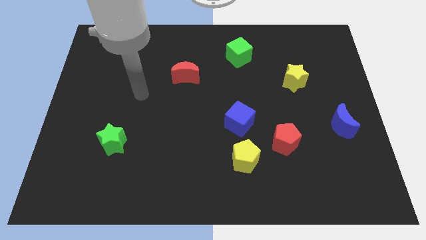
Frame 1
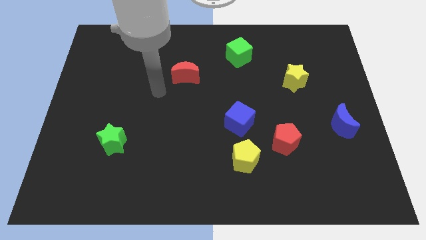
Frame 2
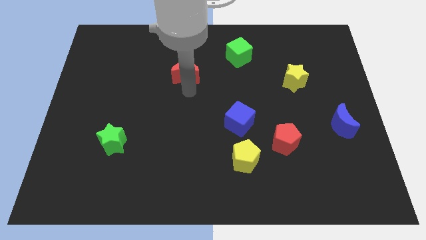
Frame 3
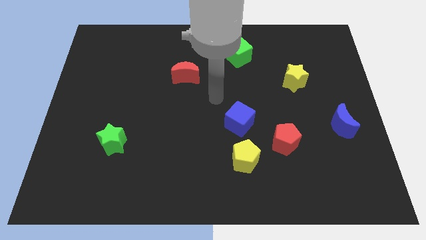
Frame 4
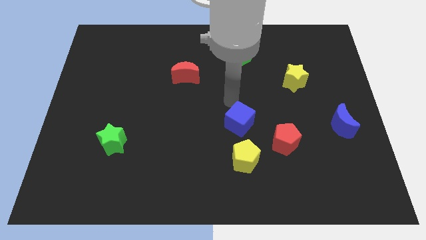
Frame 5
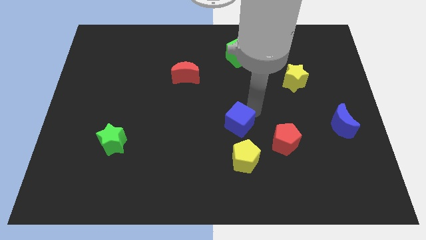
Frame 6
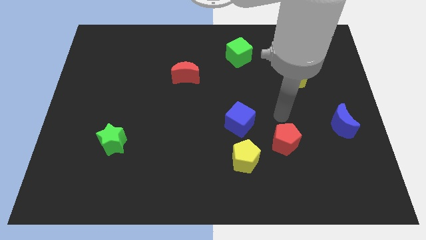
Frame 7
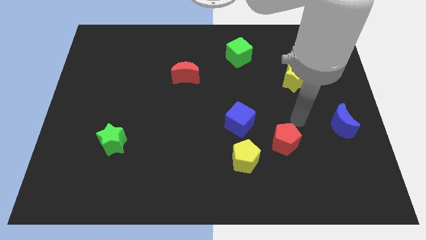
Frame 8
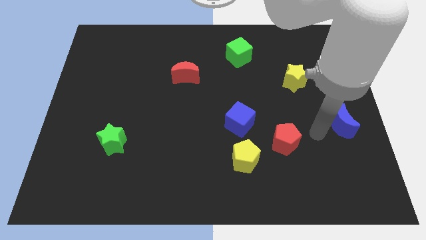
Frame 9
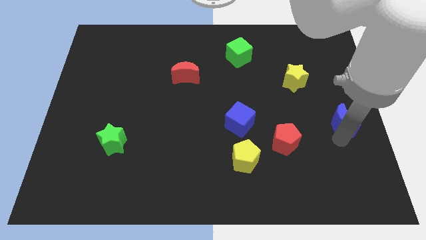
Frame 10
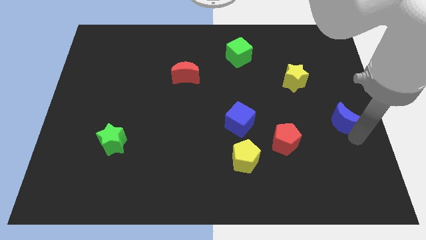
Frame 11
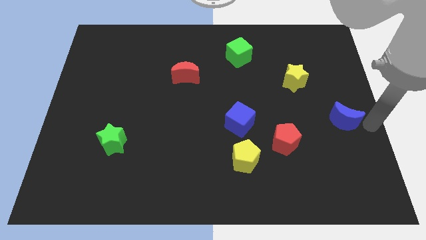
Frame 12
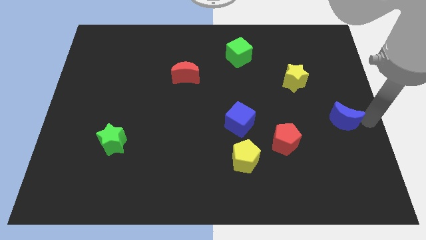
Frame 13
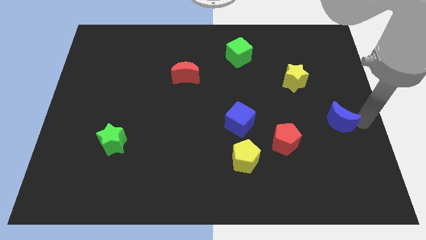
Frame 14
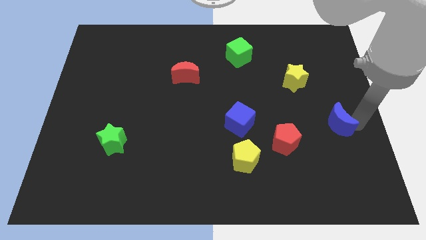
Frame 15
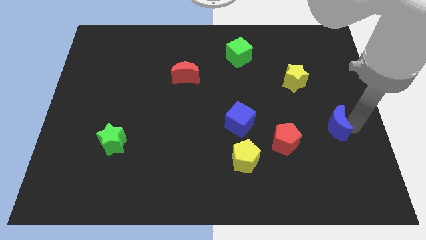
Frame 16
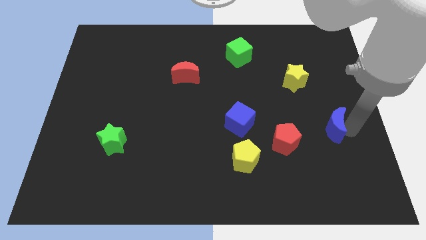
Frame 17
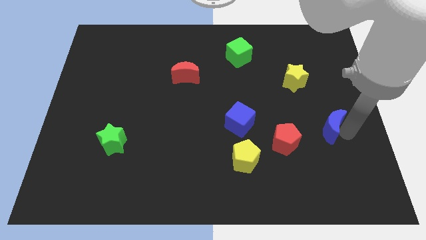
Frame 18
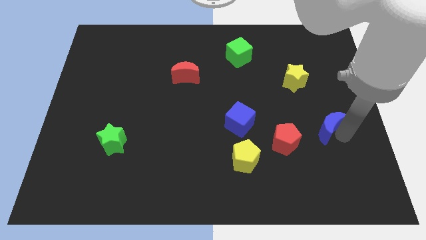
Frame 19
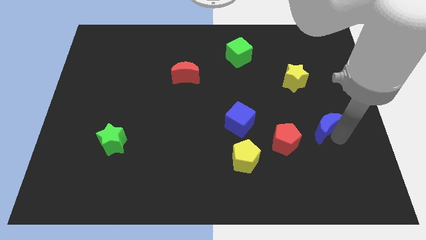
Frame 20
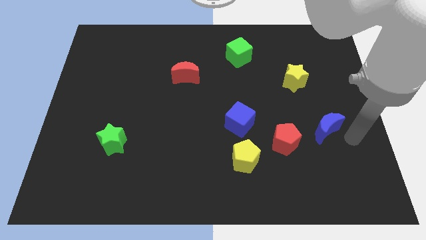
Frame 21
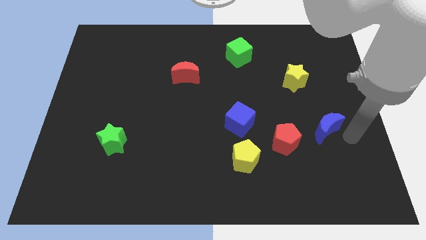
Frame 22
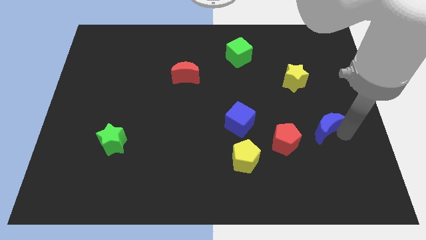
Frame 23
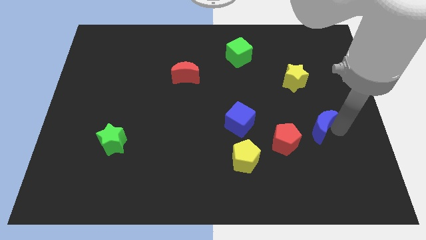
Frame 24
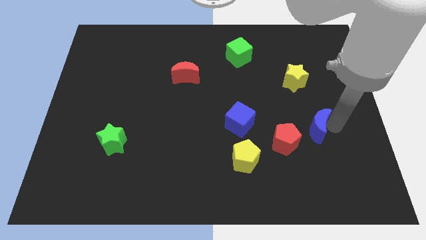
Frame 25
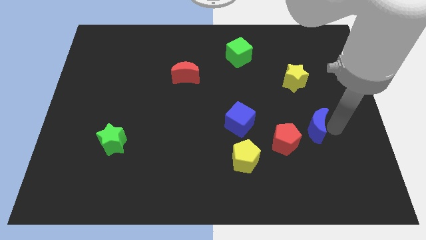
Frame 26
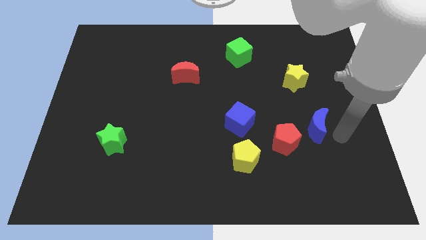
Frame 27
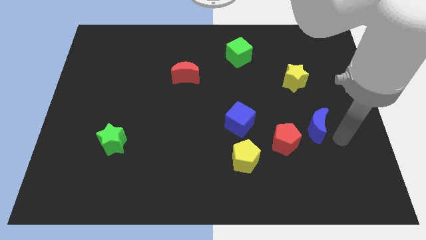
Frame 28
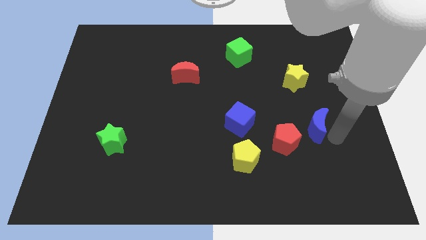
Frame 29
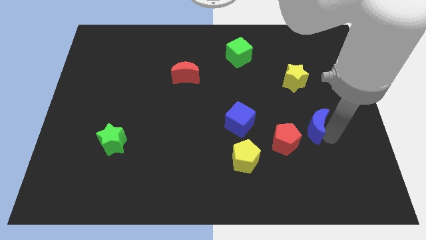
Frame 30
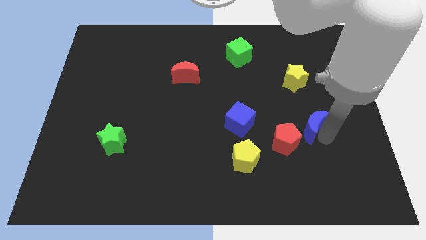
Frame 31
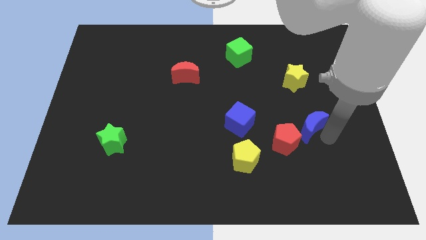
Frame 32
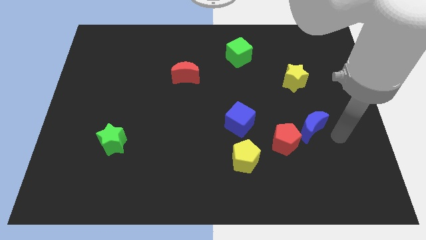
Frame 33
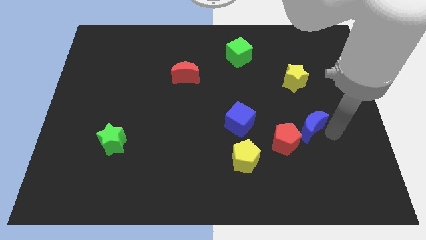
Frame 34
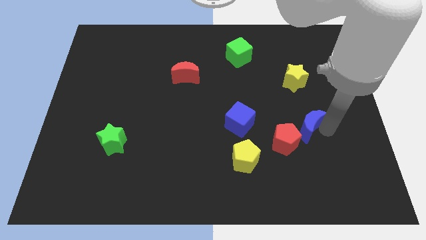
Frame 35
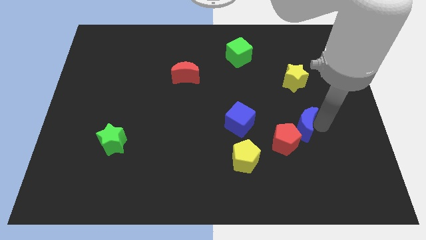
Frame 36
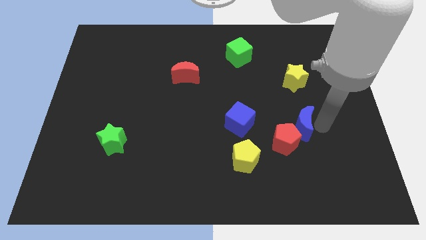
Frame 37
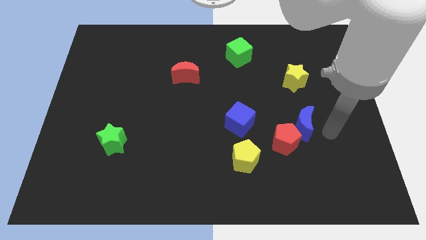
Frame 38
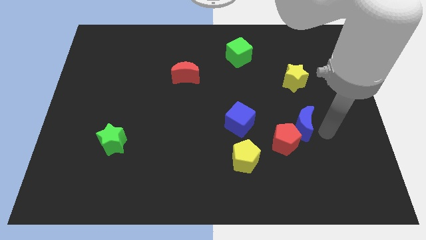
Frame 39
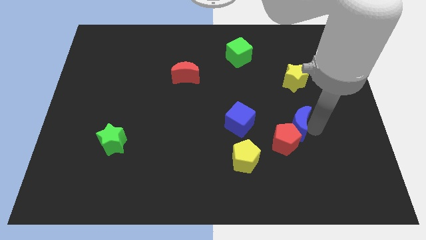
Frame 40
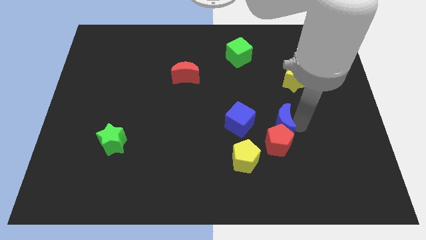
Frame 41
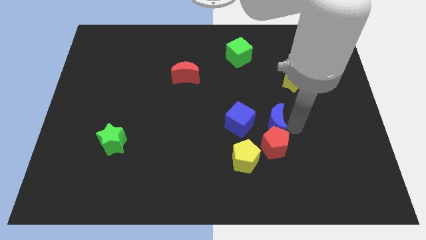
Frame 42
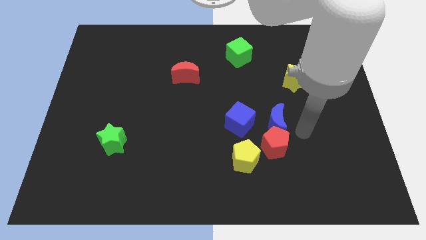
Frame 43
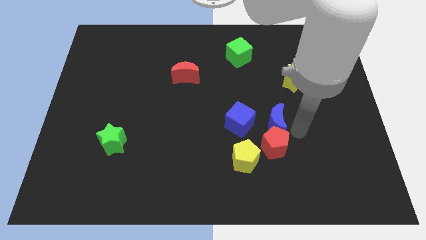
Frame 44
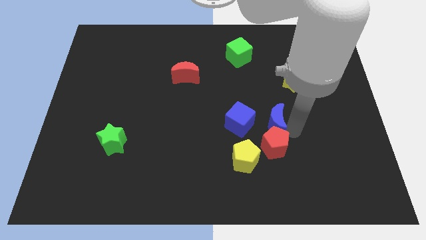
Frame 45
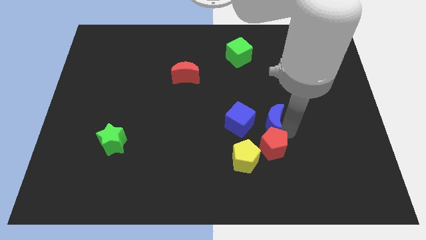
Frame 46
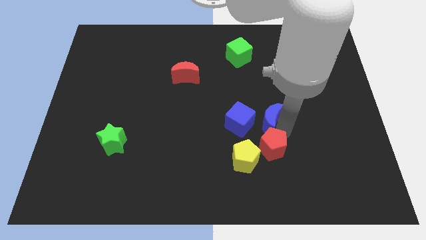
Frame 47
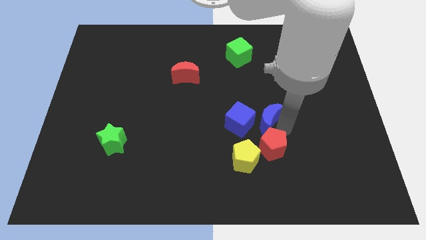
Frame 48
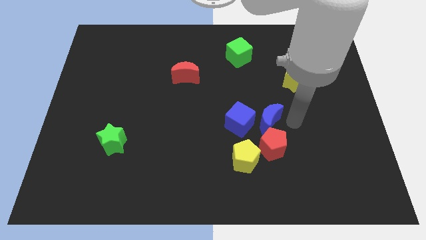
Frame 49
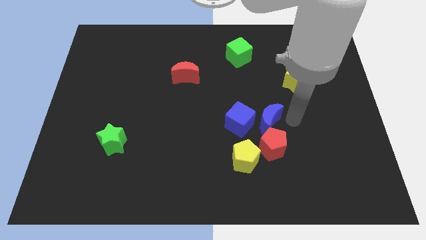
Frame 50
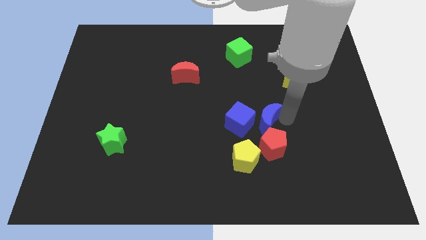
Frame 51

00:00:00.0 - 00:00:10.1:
push the blue moon next to the blue cube

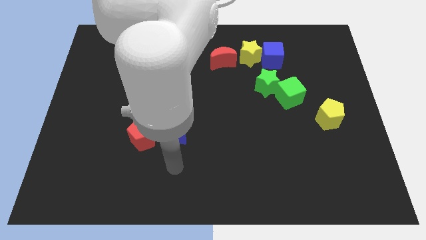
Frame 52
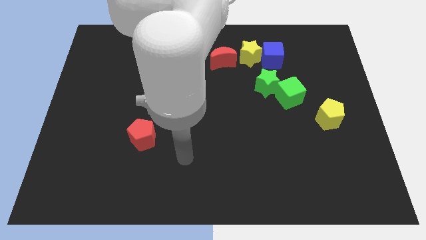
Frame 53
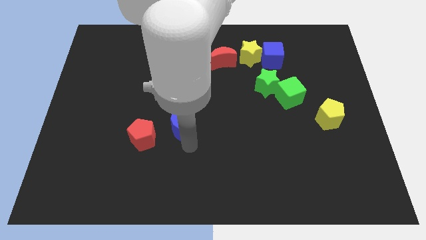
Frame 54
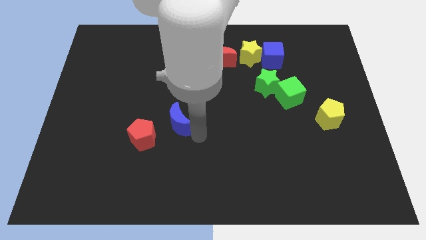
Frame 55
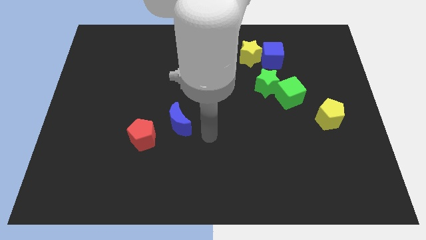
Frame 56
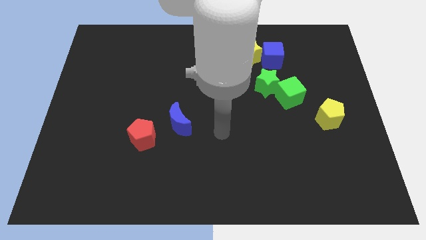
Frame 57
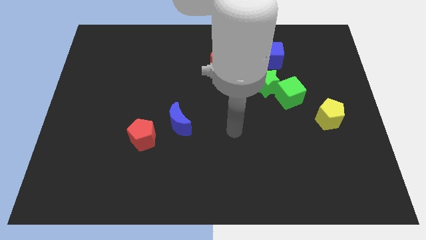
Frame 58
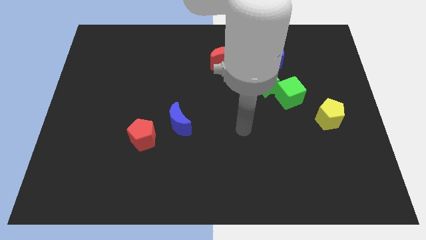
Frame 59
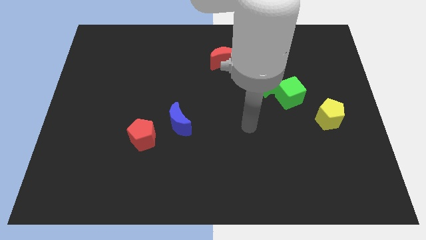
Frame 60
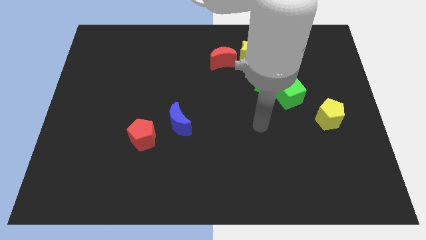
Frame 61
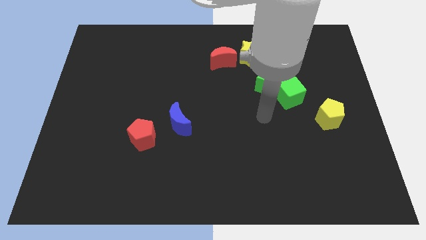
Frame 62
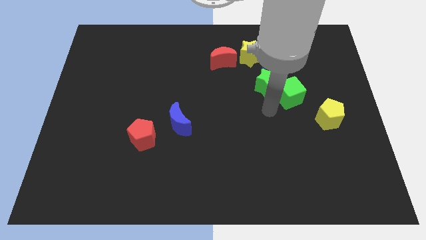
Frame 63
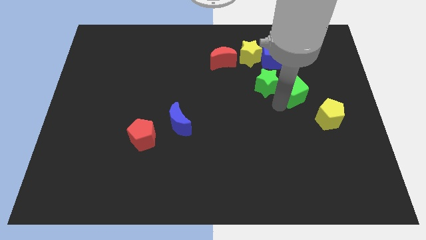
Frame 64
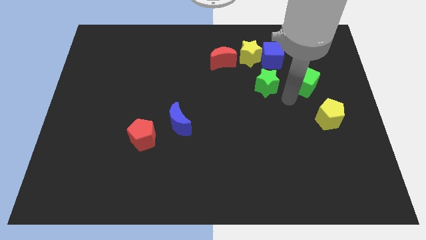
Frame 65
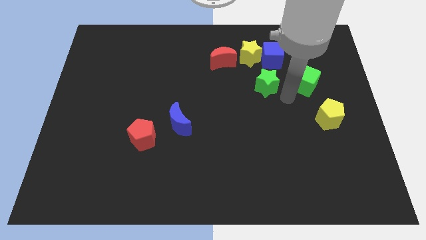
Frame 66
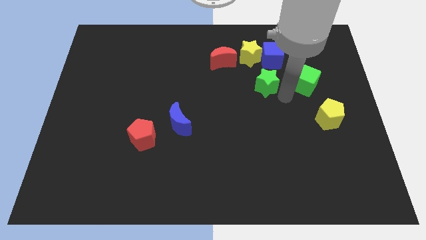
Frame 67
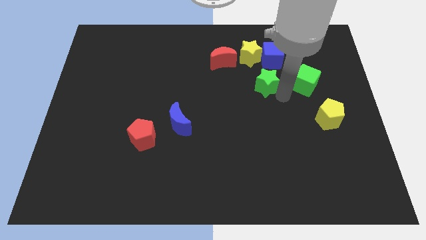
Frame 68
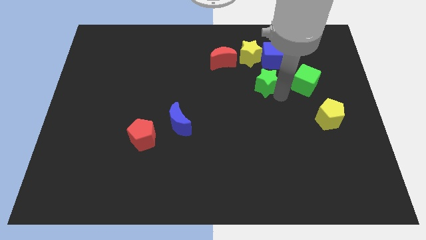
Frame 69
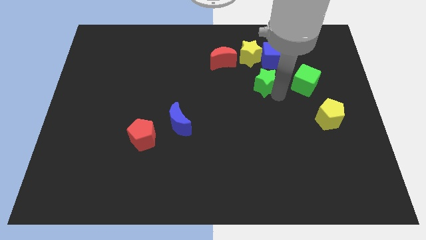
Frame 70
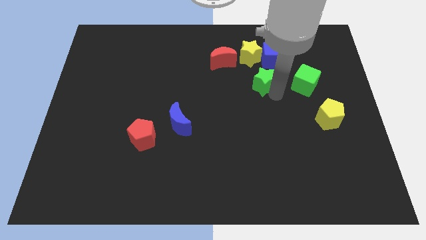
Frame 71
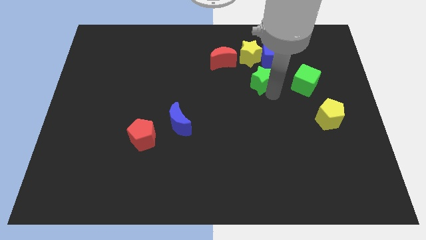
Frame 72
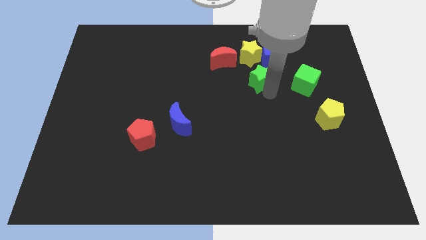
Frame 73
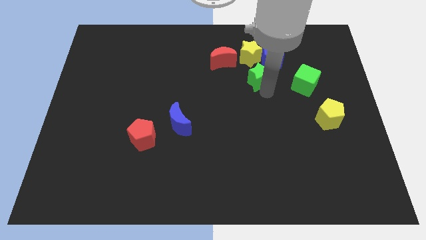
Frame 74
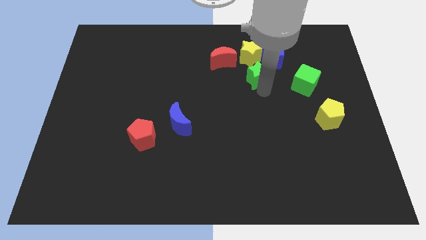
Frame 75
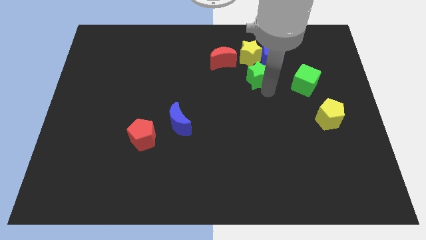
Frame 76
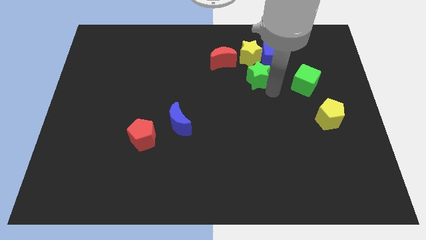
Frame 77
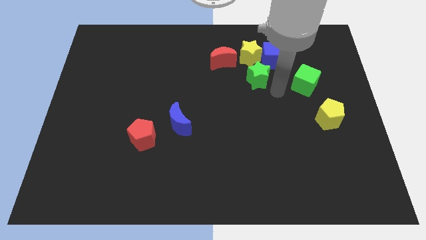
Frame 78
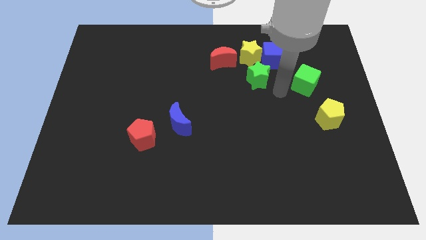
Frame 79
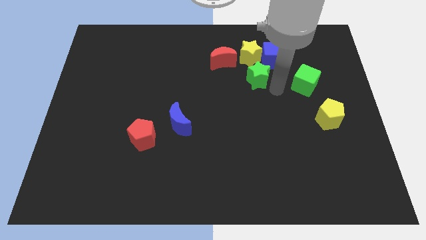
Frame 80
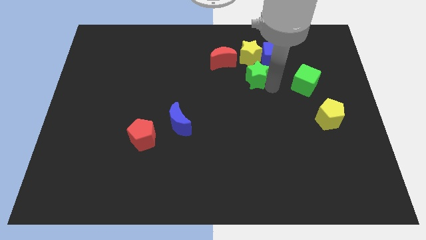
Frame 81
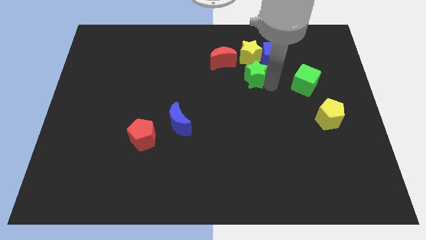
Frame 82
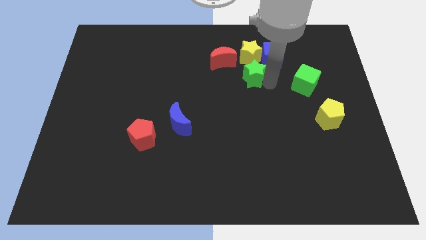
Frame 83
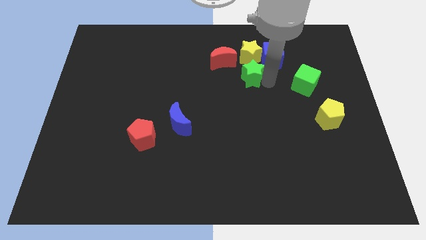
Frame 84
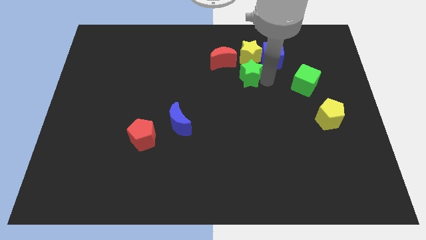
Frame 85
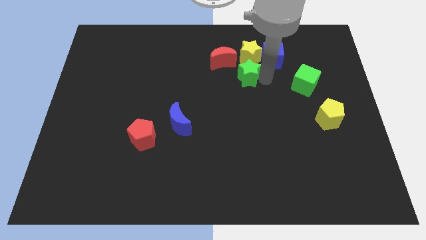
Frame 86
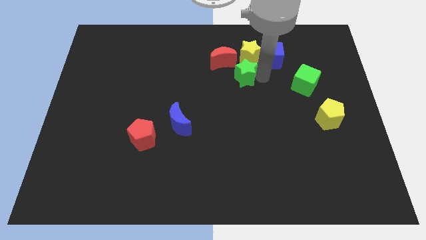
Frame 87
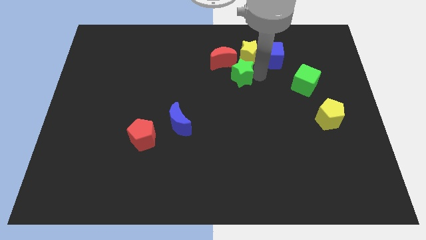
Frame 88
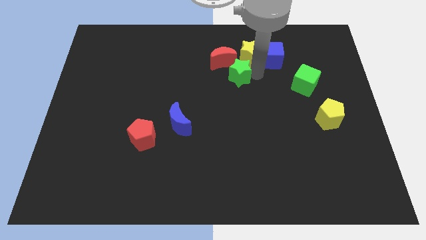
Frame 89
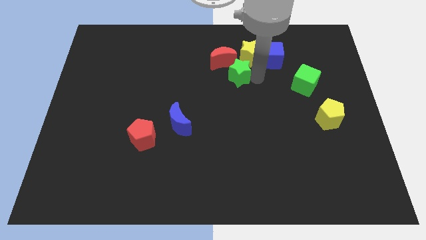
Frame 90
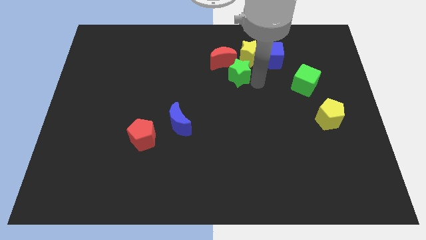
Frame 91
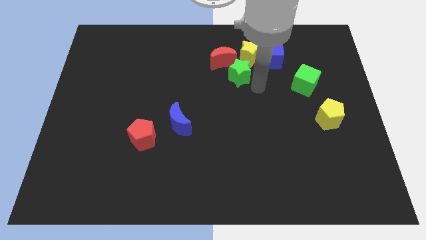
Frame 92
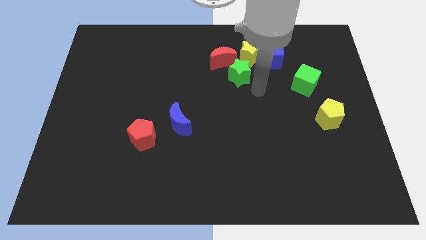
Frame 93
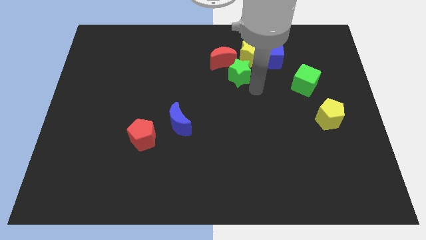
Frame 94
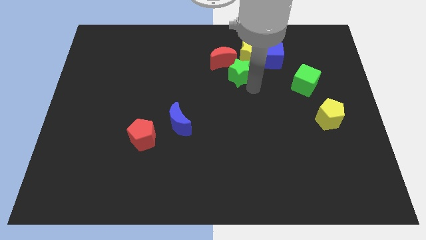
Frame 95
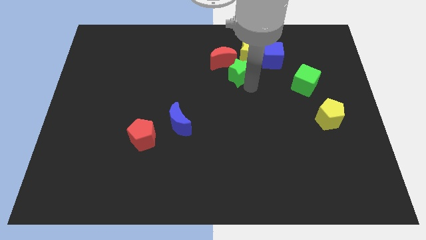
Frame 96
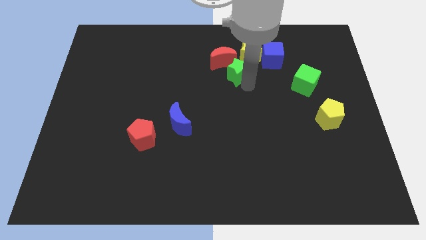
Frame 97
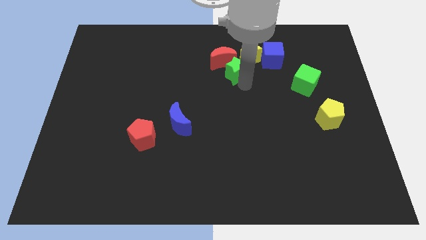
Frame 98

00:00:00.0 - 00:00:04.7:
push the green star next to the red moon
